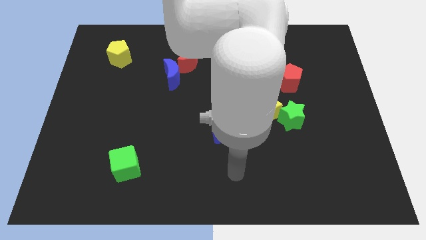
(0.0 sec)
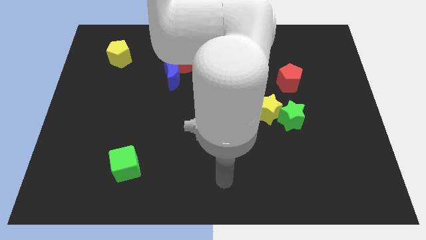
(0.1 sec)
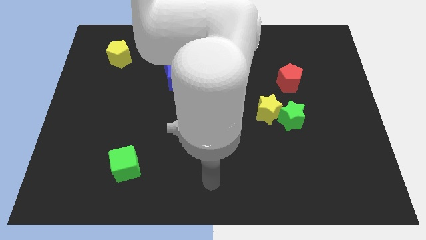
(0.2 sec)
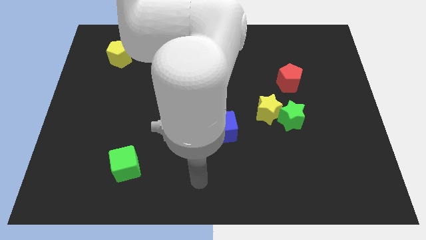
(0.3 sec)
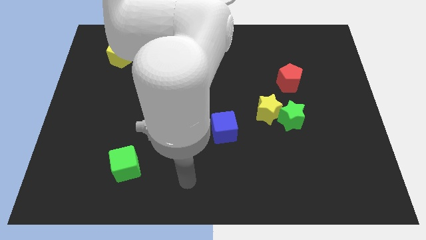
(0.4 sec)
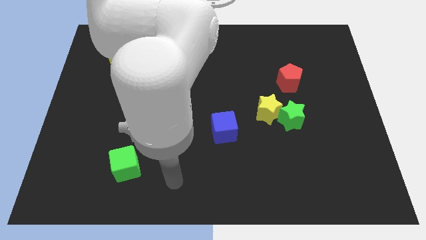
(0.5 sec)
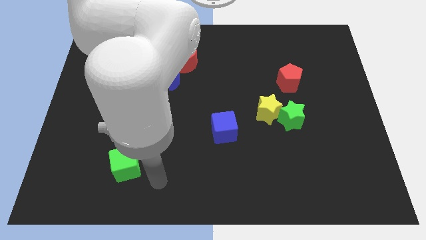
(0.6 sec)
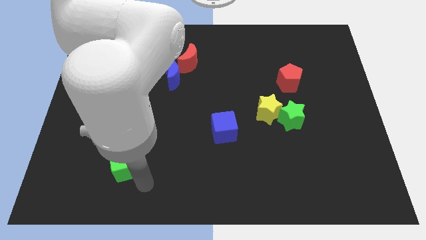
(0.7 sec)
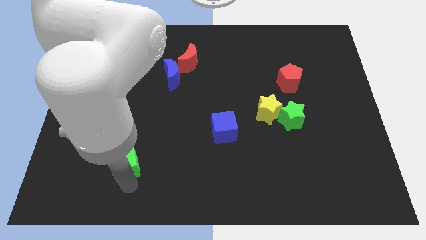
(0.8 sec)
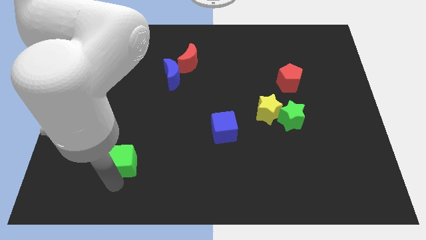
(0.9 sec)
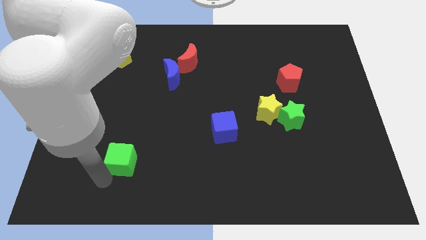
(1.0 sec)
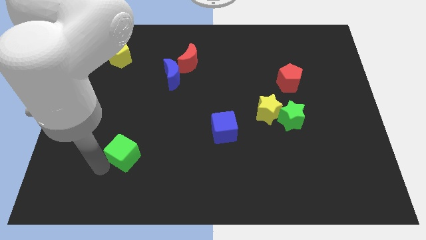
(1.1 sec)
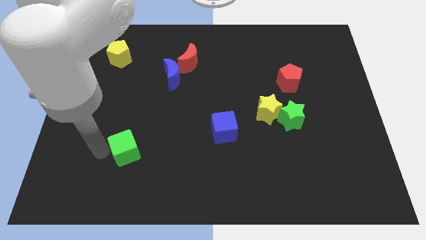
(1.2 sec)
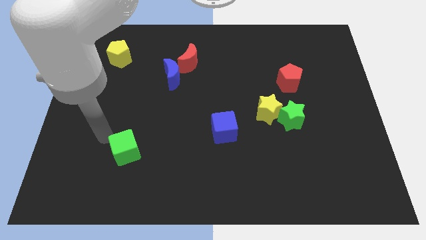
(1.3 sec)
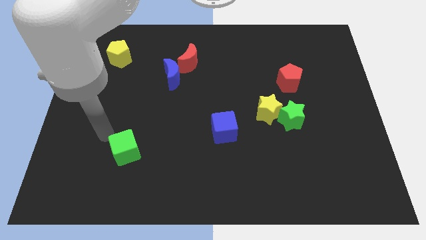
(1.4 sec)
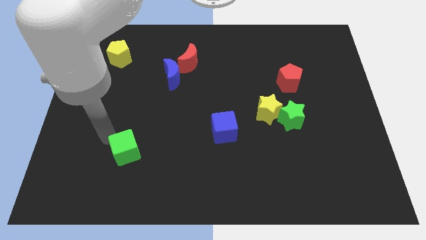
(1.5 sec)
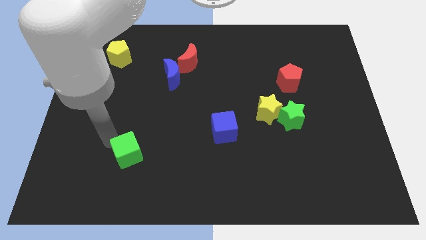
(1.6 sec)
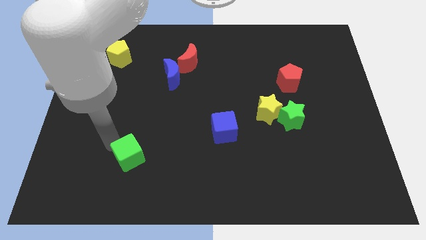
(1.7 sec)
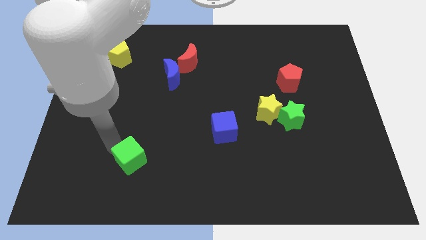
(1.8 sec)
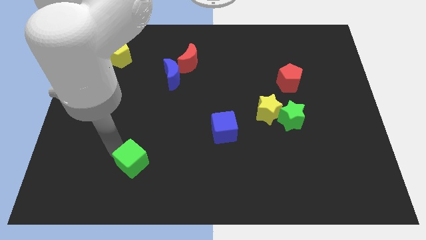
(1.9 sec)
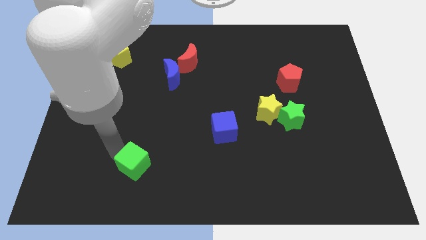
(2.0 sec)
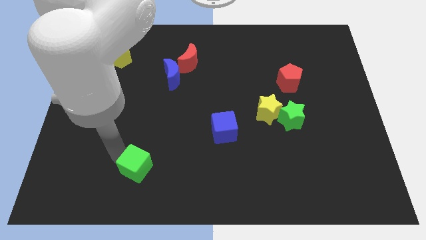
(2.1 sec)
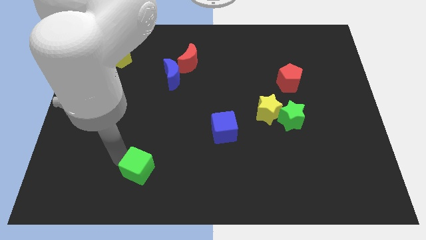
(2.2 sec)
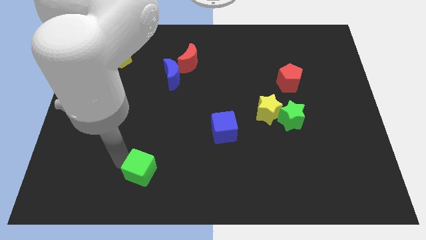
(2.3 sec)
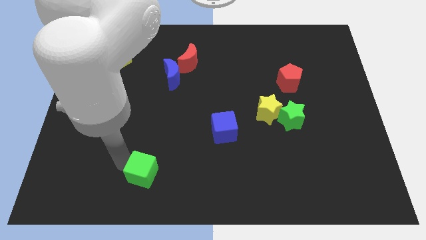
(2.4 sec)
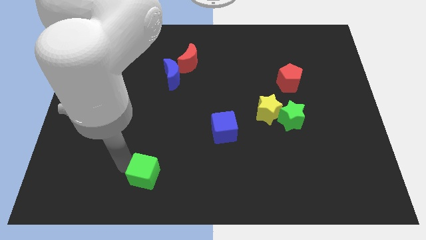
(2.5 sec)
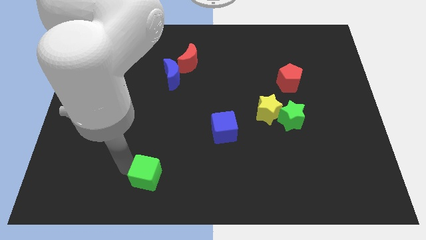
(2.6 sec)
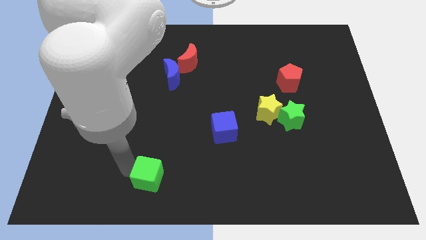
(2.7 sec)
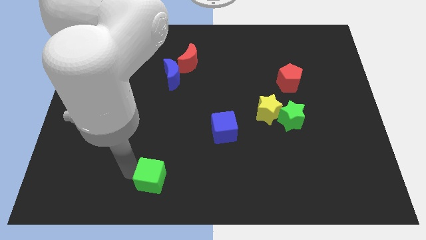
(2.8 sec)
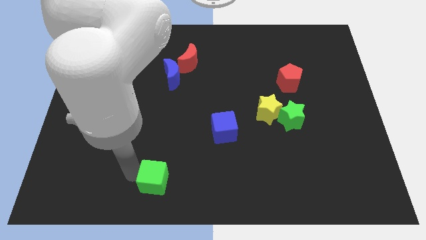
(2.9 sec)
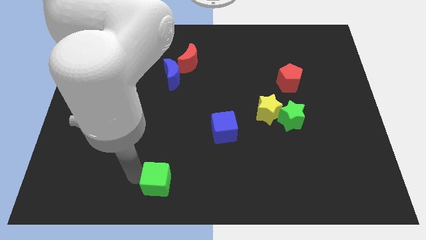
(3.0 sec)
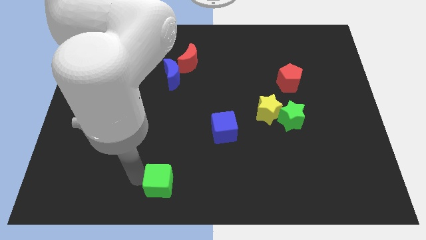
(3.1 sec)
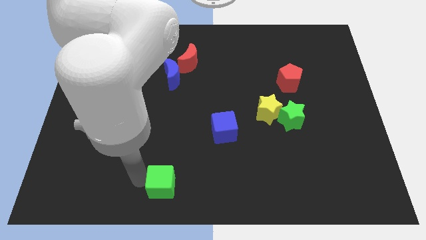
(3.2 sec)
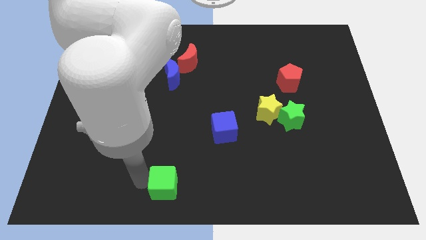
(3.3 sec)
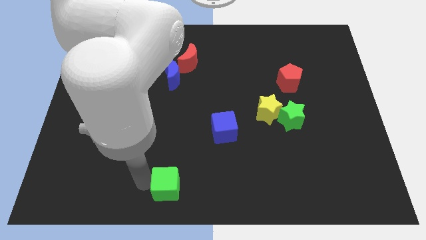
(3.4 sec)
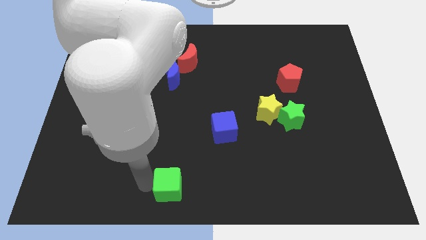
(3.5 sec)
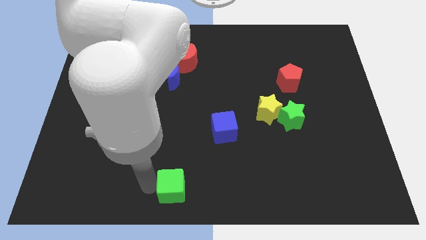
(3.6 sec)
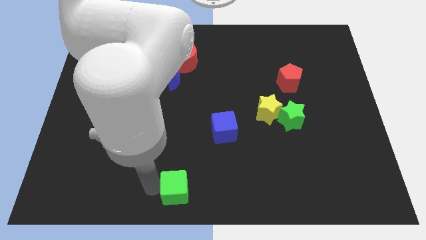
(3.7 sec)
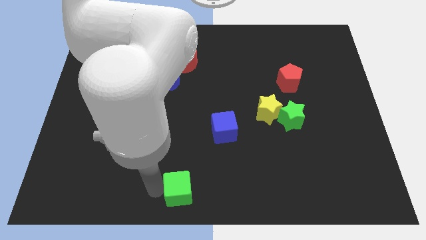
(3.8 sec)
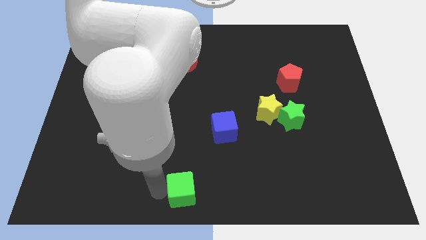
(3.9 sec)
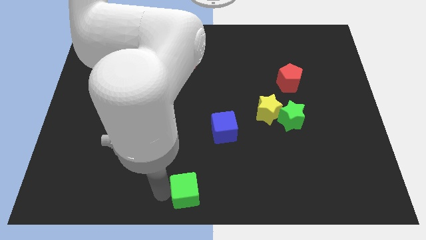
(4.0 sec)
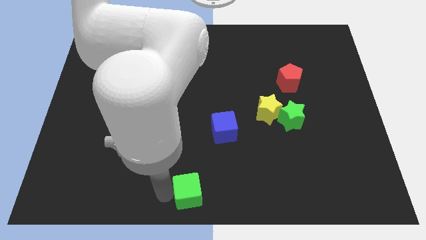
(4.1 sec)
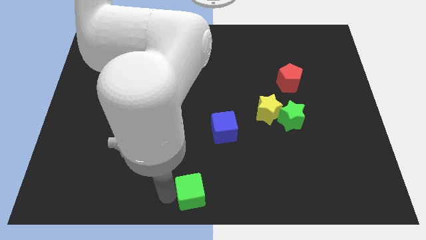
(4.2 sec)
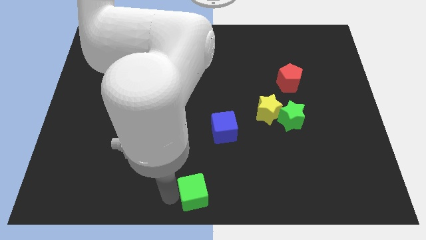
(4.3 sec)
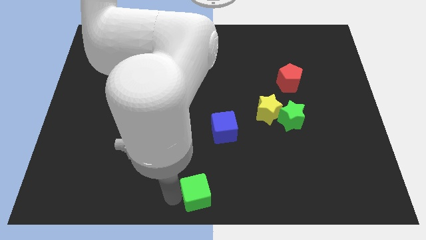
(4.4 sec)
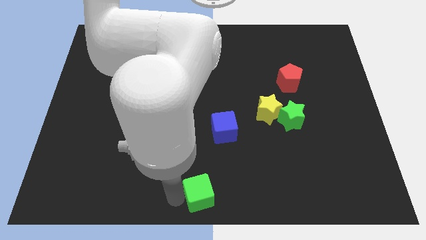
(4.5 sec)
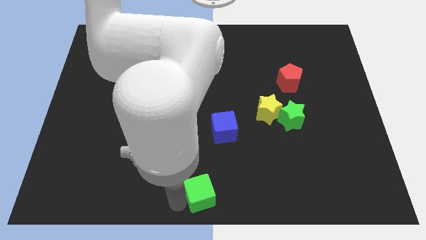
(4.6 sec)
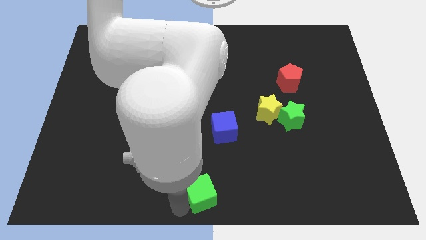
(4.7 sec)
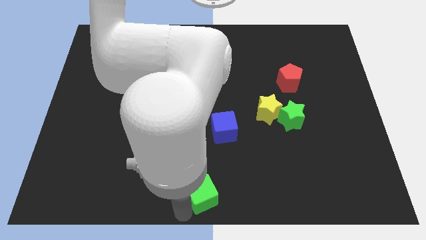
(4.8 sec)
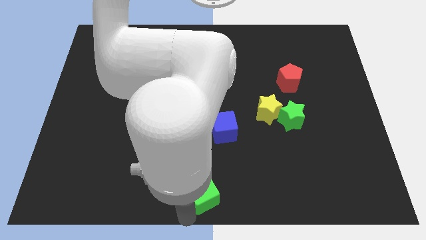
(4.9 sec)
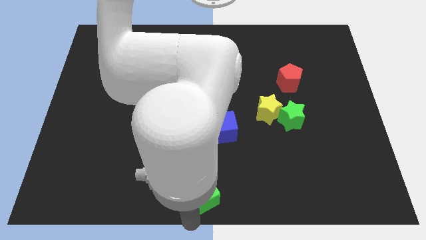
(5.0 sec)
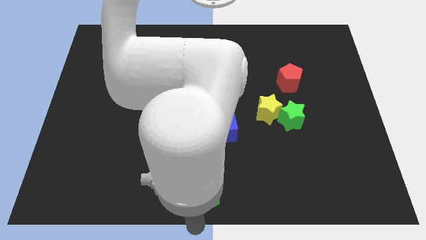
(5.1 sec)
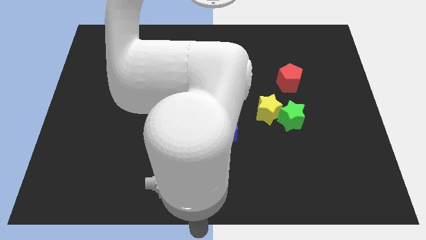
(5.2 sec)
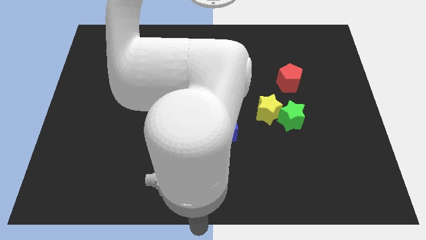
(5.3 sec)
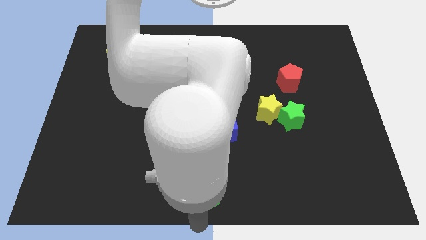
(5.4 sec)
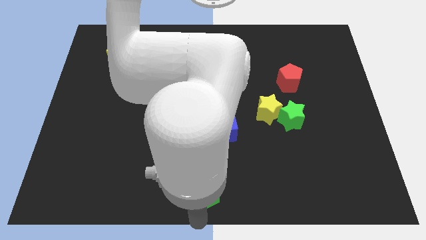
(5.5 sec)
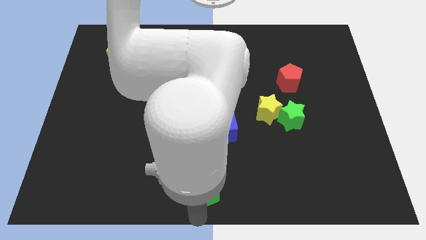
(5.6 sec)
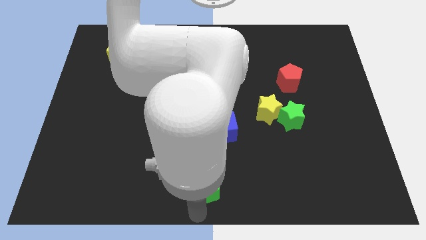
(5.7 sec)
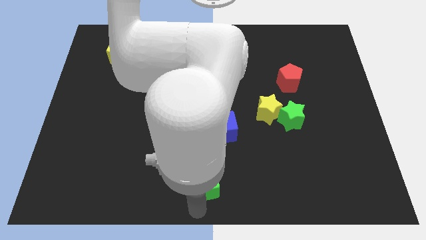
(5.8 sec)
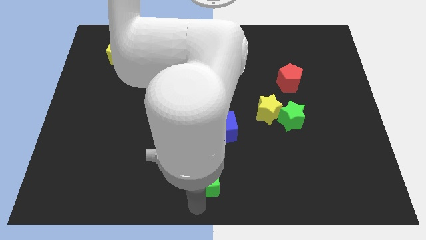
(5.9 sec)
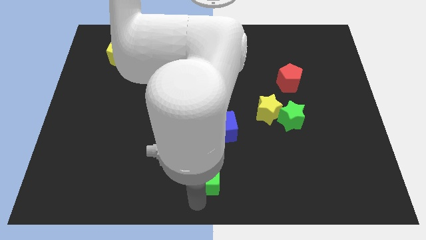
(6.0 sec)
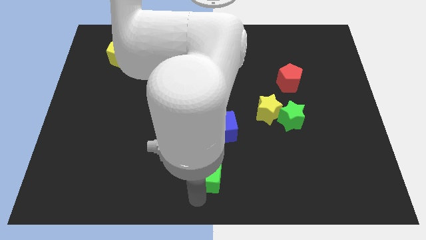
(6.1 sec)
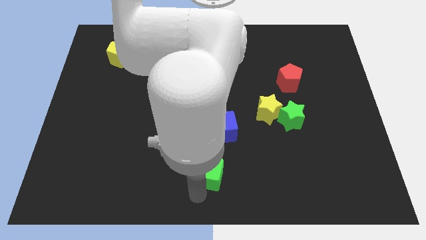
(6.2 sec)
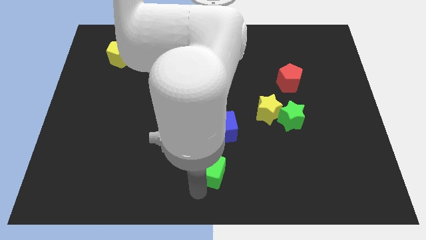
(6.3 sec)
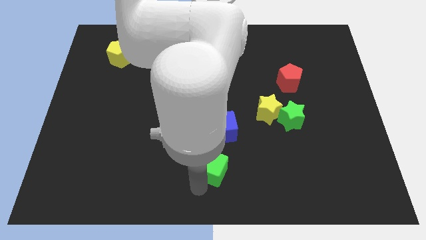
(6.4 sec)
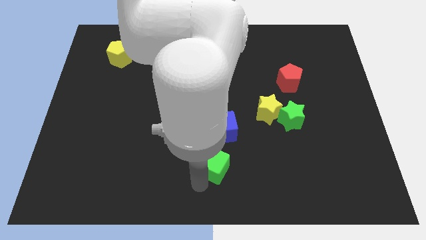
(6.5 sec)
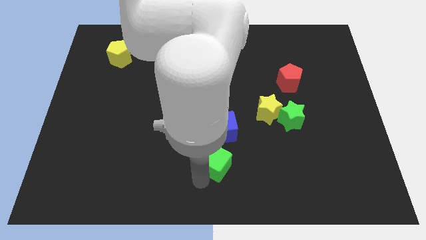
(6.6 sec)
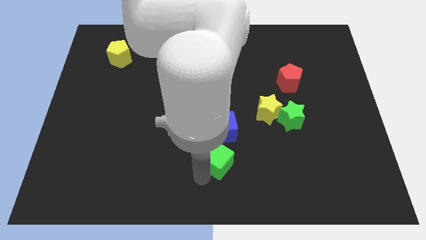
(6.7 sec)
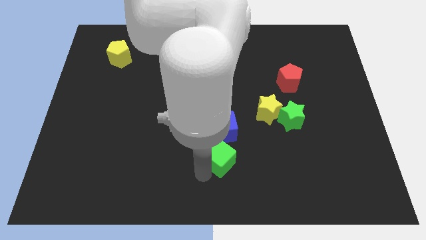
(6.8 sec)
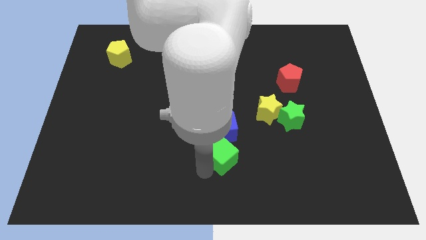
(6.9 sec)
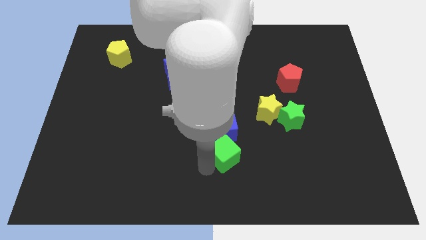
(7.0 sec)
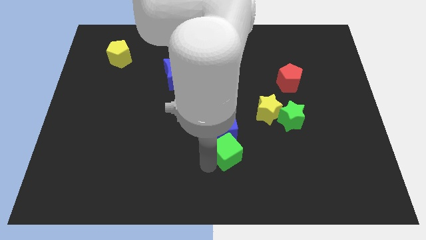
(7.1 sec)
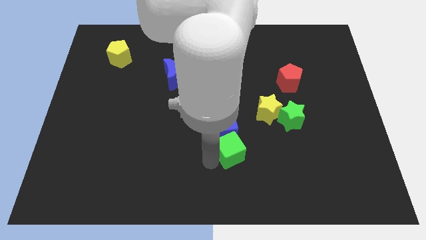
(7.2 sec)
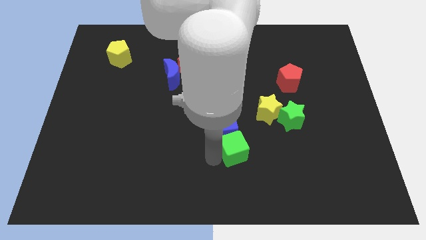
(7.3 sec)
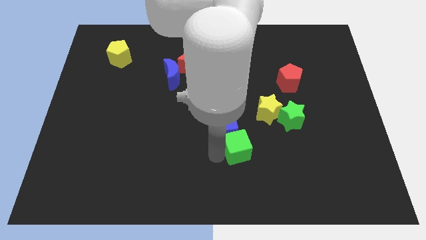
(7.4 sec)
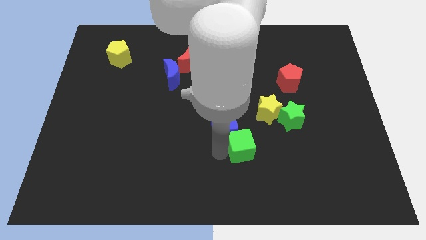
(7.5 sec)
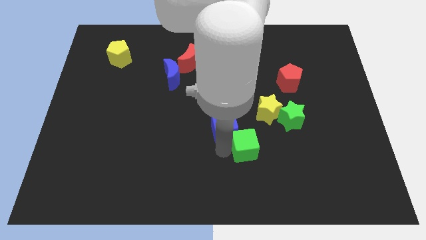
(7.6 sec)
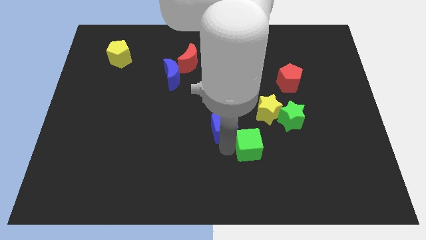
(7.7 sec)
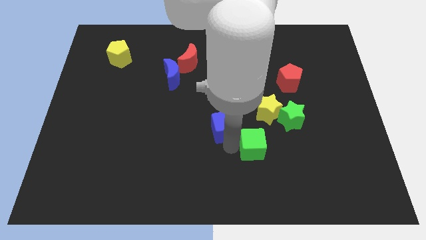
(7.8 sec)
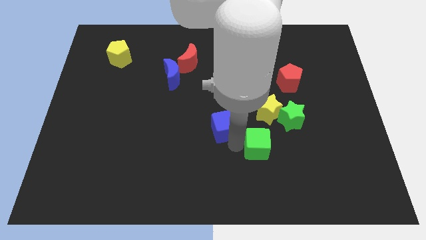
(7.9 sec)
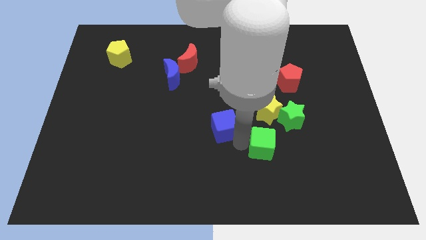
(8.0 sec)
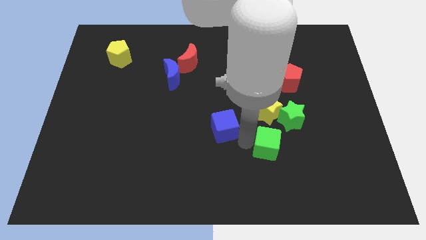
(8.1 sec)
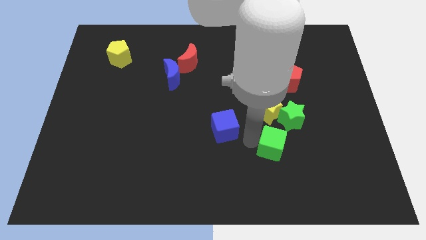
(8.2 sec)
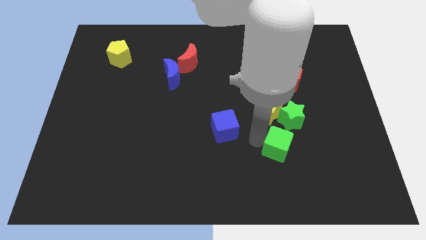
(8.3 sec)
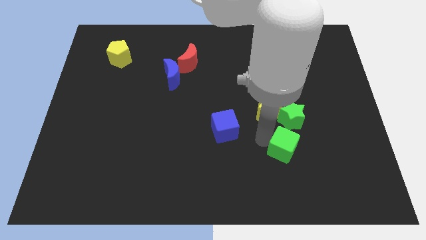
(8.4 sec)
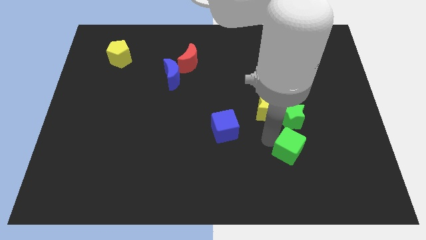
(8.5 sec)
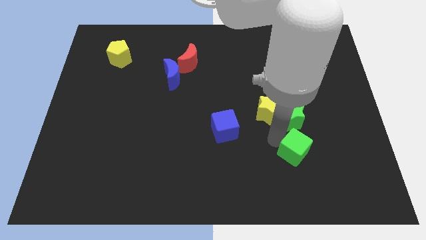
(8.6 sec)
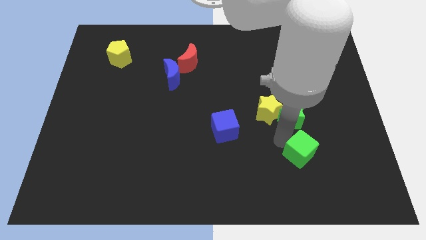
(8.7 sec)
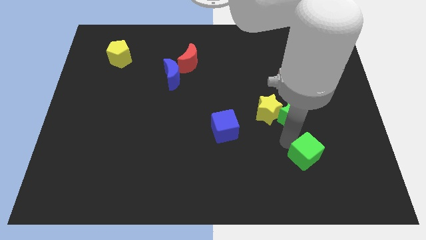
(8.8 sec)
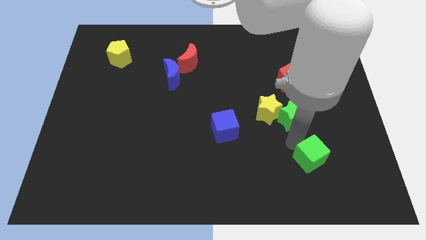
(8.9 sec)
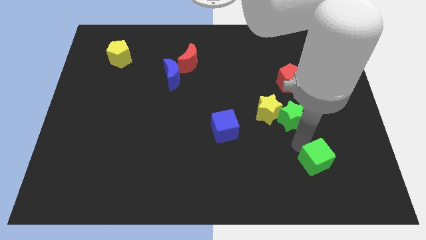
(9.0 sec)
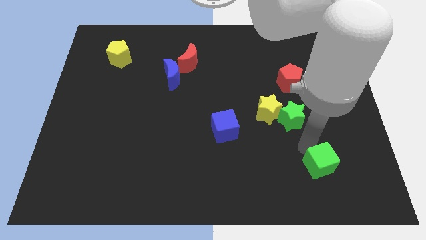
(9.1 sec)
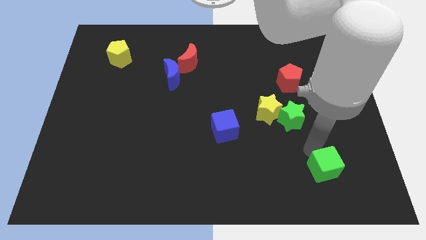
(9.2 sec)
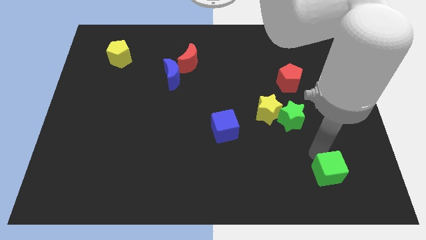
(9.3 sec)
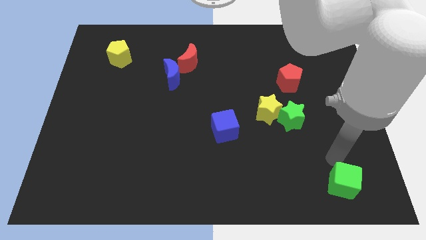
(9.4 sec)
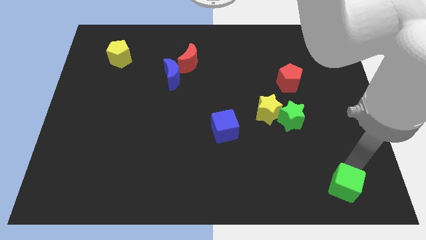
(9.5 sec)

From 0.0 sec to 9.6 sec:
slide the green cube to the bottom right of the board
